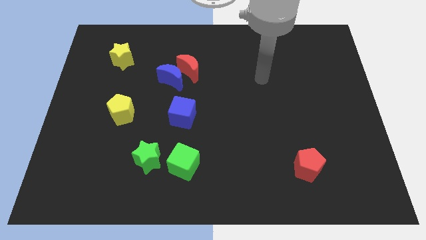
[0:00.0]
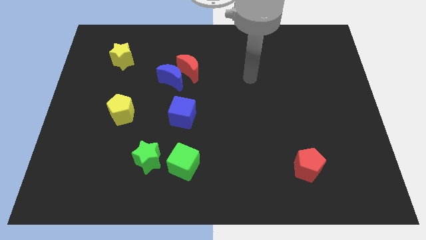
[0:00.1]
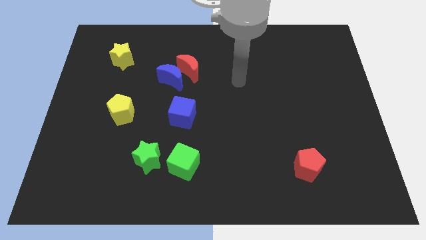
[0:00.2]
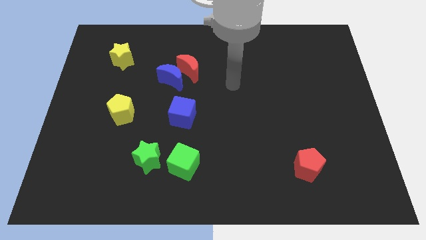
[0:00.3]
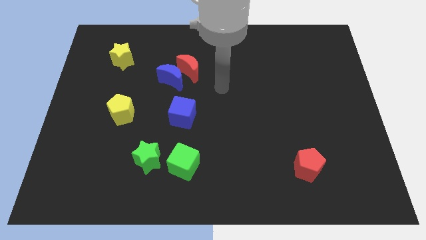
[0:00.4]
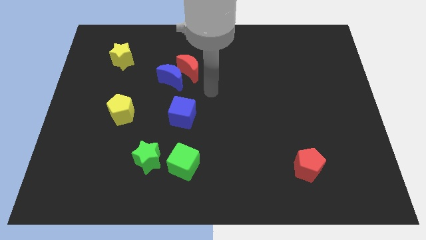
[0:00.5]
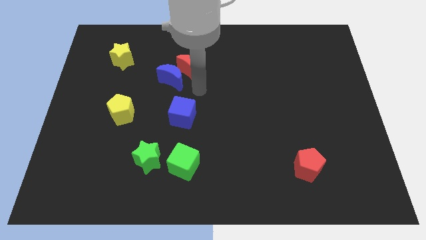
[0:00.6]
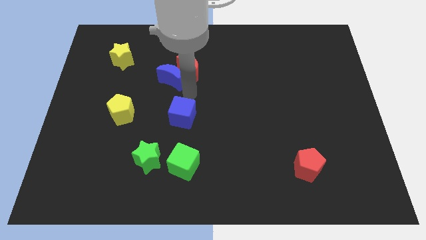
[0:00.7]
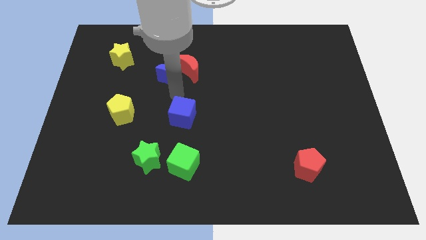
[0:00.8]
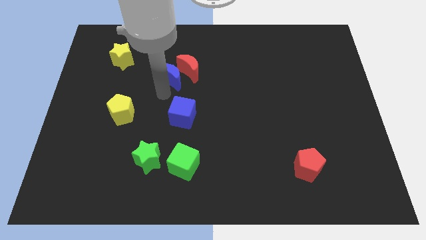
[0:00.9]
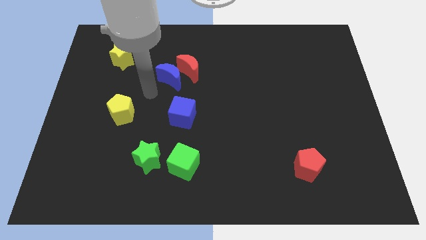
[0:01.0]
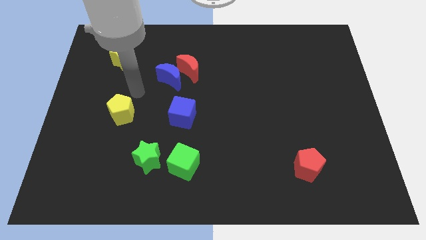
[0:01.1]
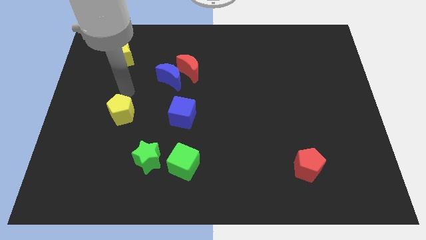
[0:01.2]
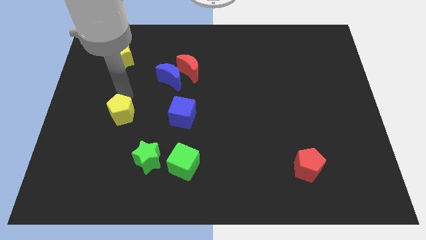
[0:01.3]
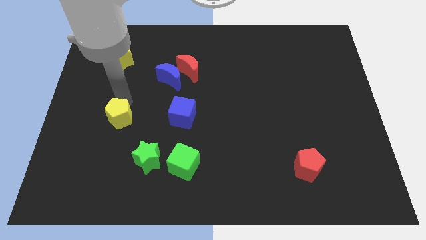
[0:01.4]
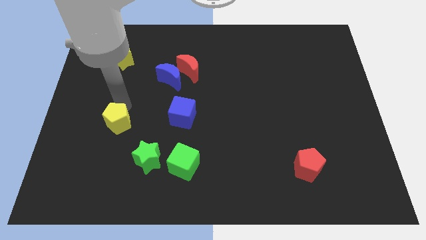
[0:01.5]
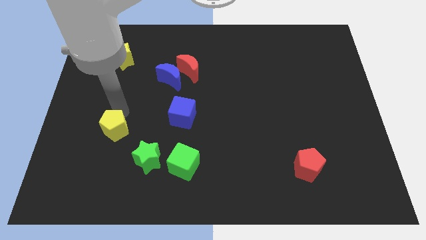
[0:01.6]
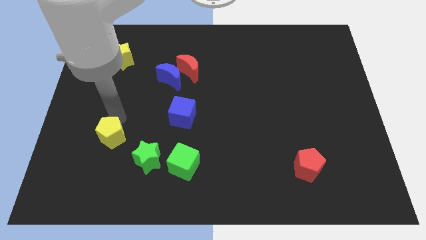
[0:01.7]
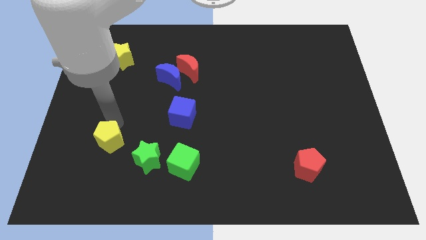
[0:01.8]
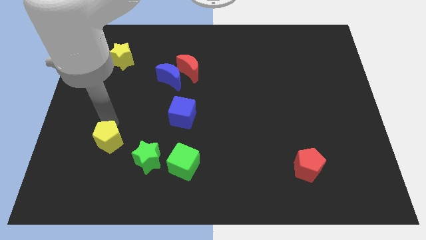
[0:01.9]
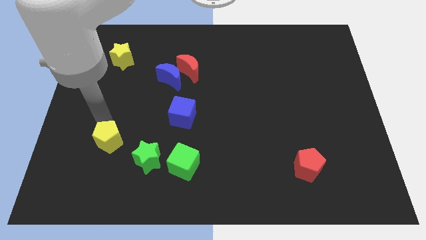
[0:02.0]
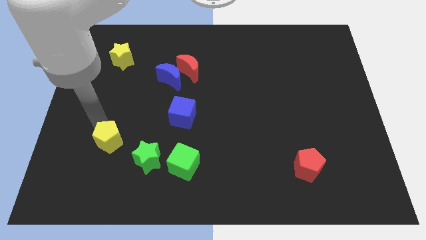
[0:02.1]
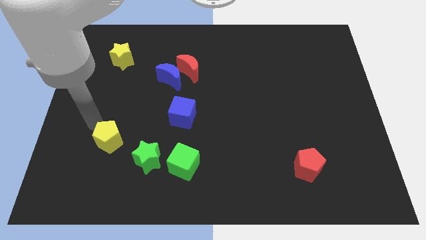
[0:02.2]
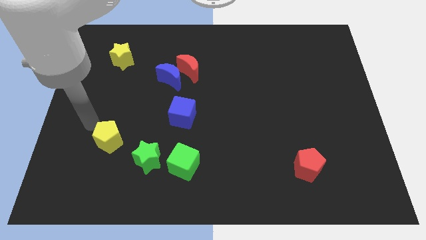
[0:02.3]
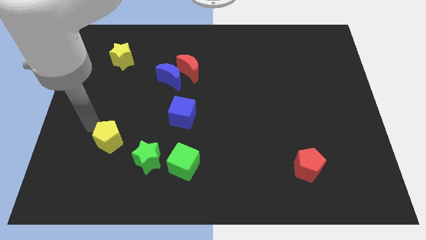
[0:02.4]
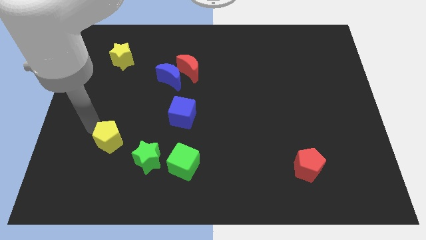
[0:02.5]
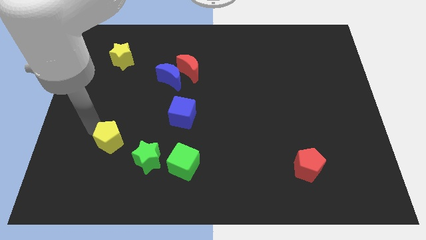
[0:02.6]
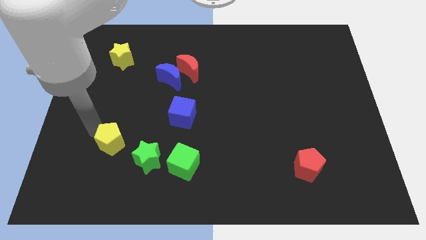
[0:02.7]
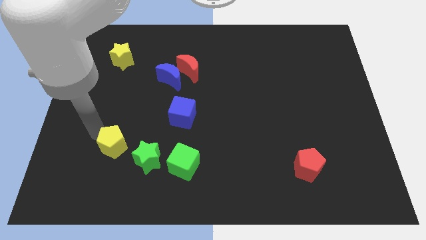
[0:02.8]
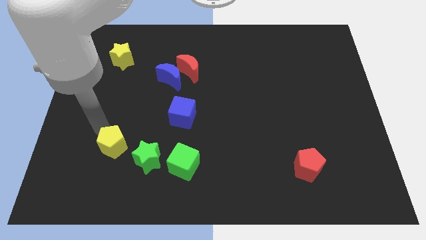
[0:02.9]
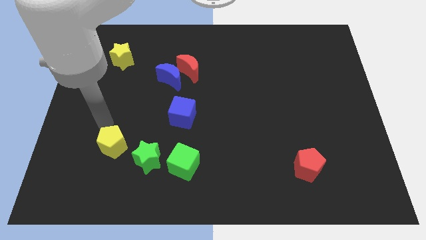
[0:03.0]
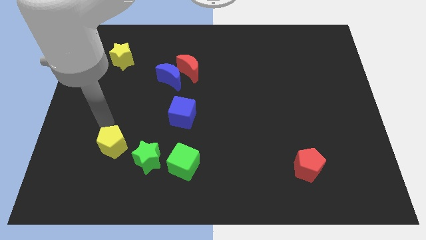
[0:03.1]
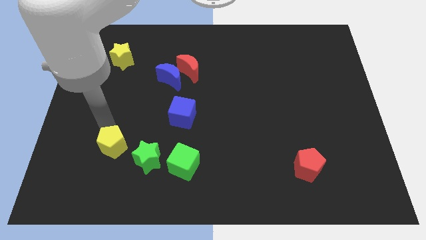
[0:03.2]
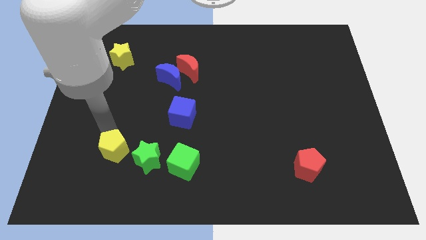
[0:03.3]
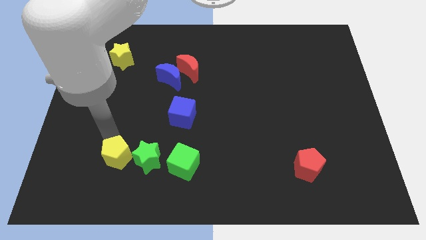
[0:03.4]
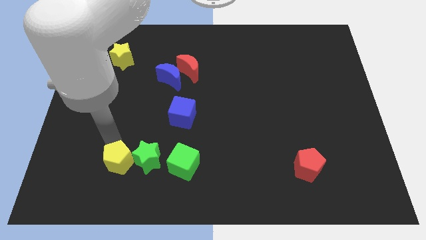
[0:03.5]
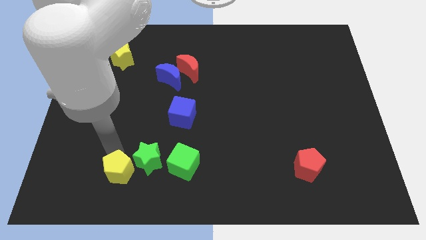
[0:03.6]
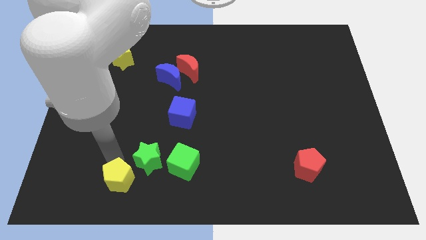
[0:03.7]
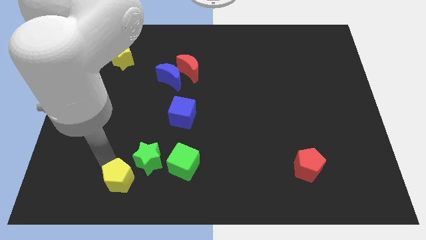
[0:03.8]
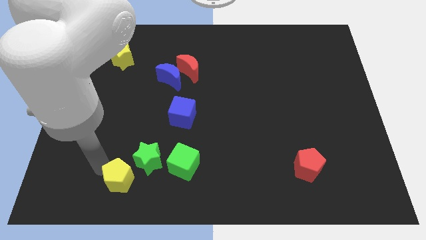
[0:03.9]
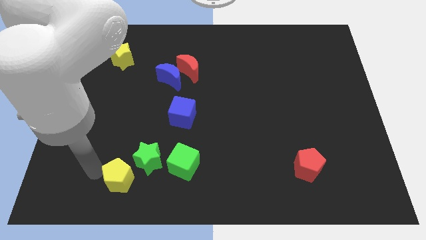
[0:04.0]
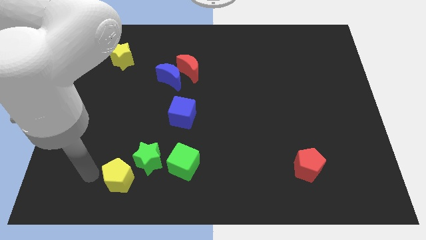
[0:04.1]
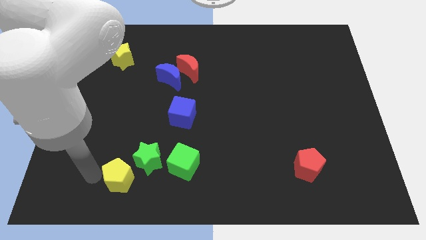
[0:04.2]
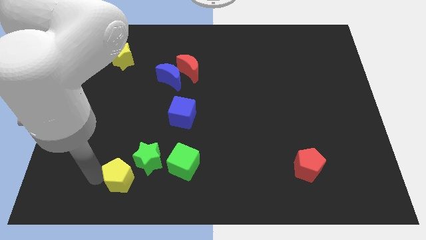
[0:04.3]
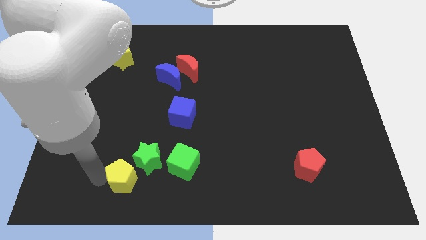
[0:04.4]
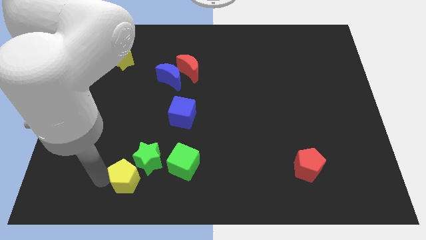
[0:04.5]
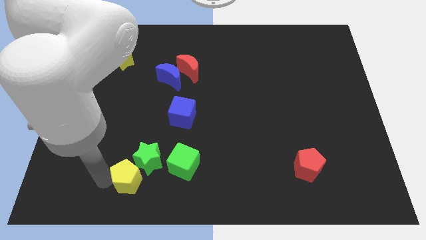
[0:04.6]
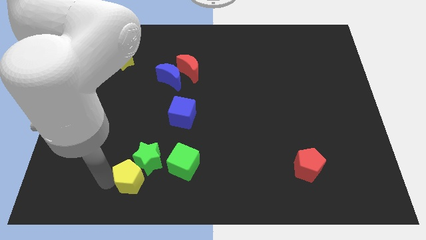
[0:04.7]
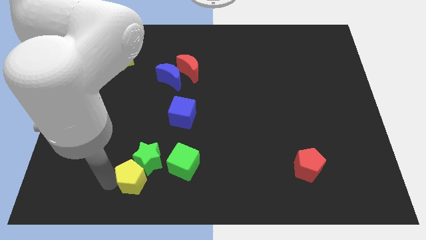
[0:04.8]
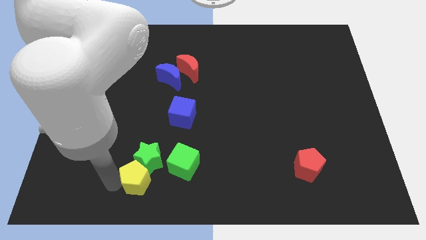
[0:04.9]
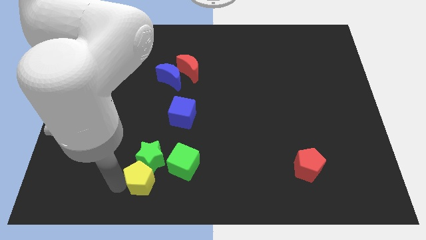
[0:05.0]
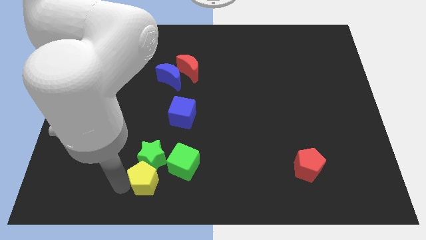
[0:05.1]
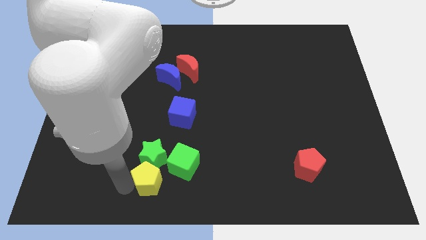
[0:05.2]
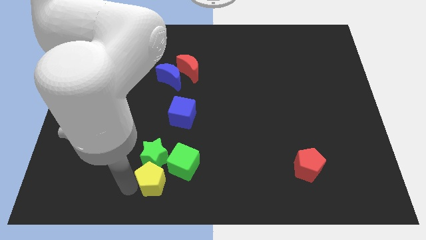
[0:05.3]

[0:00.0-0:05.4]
slide the yellow pentagon to the bottom side
